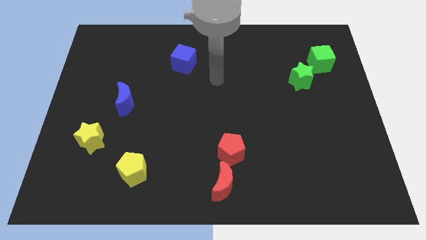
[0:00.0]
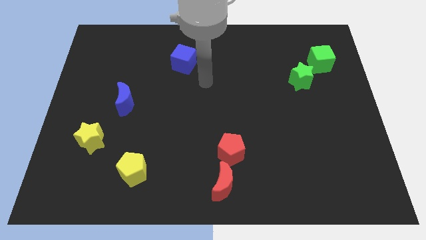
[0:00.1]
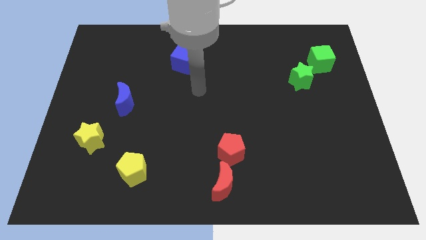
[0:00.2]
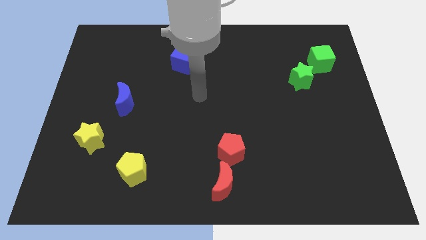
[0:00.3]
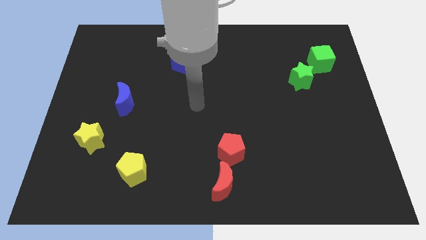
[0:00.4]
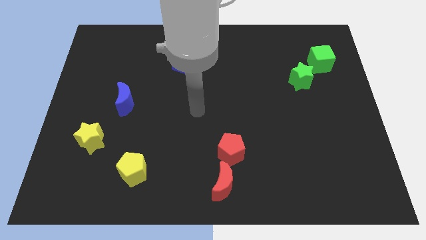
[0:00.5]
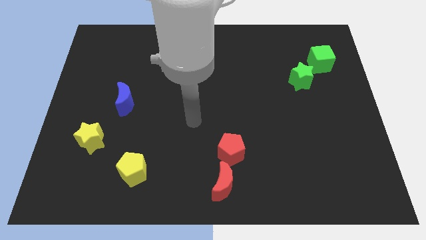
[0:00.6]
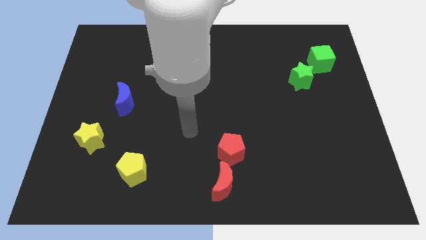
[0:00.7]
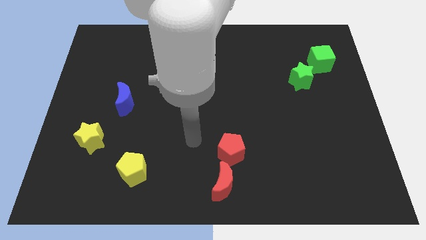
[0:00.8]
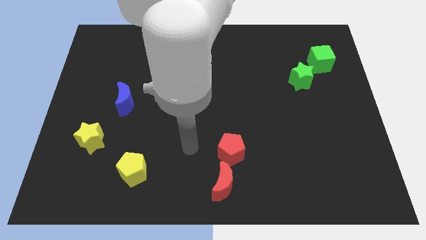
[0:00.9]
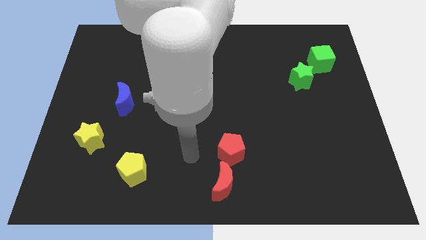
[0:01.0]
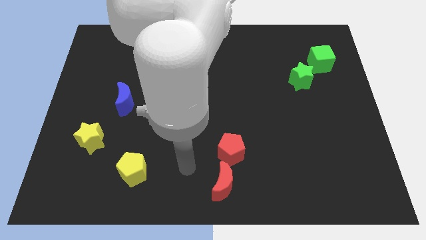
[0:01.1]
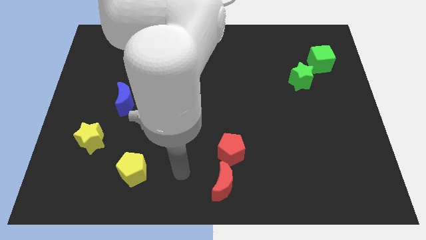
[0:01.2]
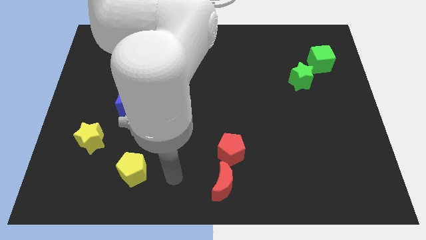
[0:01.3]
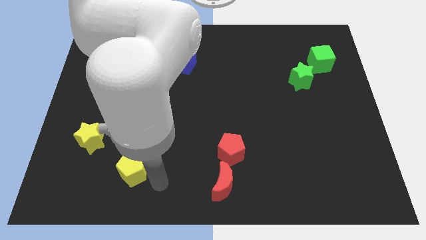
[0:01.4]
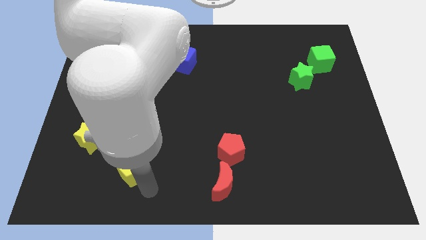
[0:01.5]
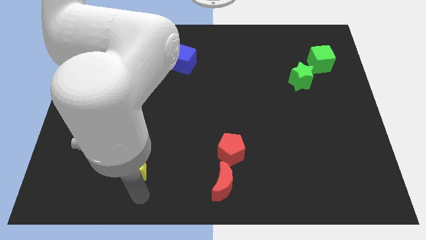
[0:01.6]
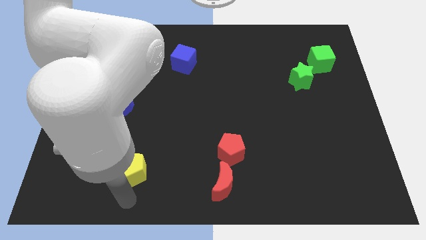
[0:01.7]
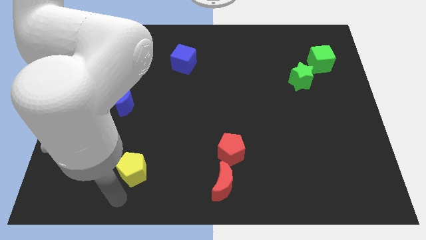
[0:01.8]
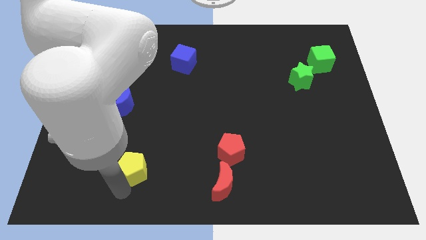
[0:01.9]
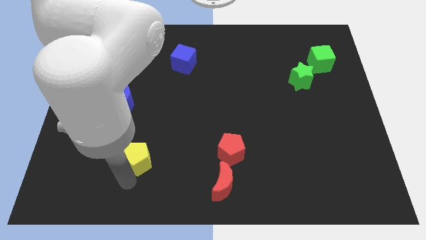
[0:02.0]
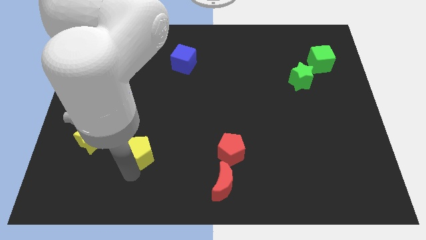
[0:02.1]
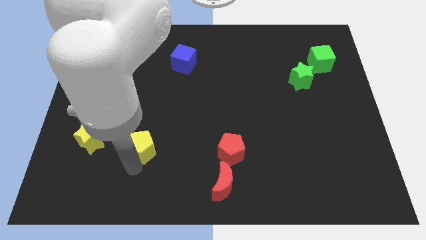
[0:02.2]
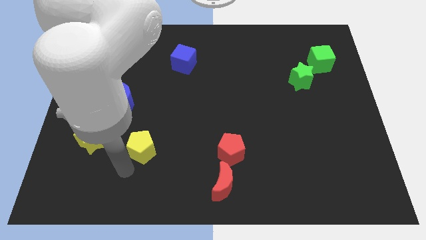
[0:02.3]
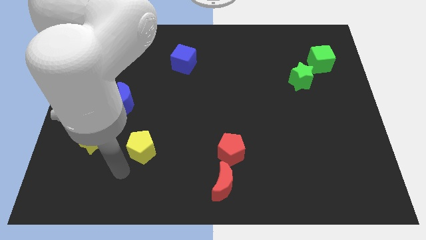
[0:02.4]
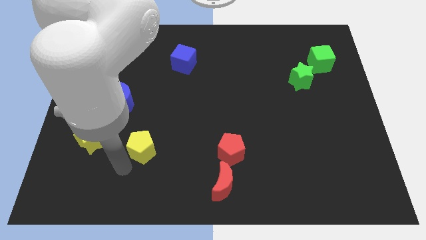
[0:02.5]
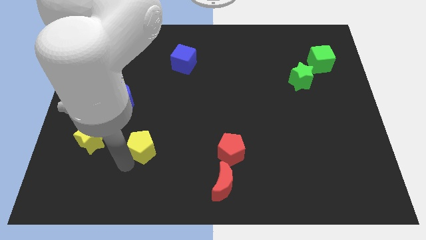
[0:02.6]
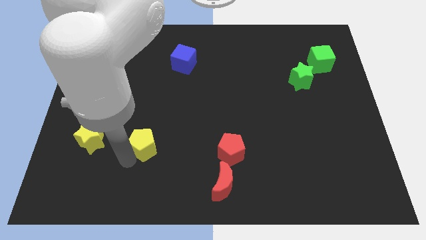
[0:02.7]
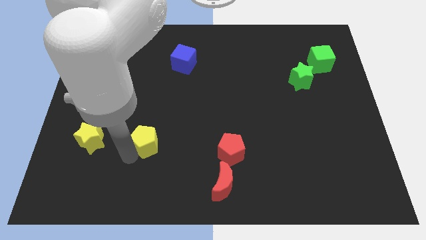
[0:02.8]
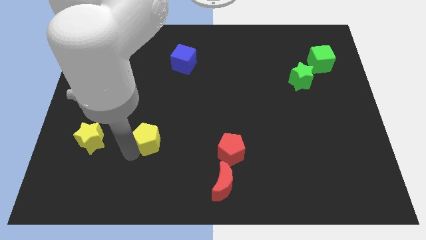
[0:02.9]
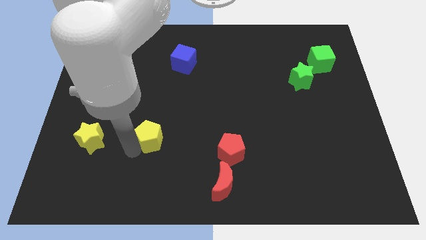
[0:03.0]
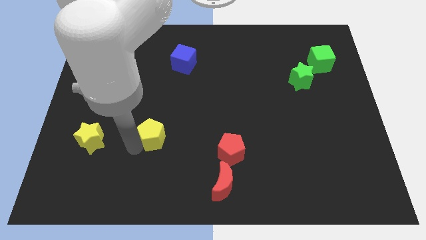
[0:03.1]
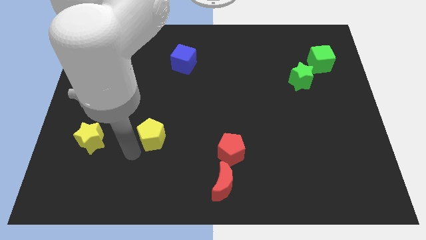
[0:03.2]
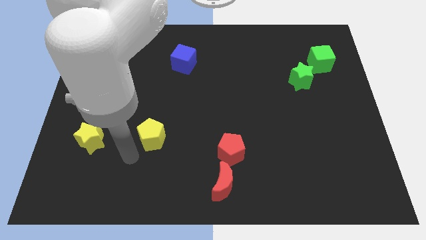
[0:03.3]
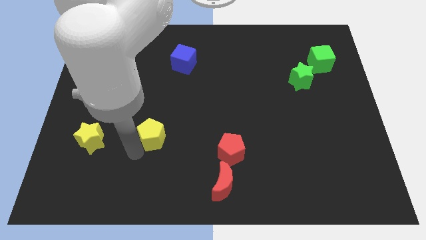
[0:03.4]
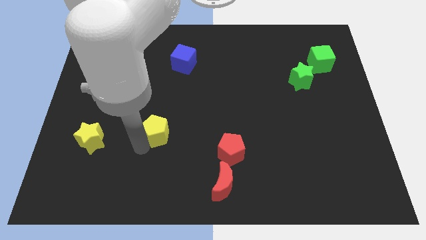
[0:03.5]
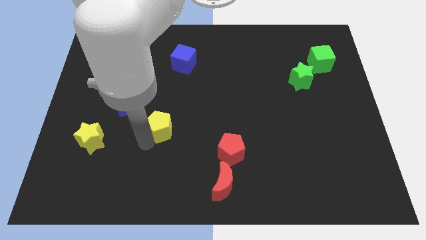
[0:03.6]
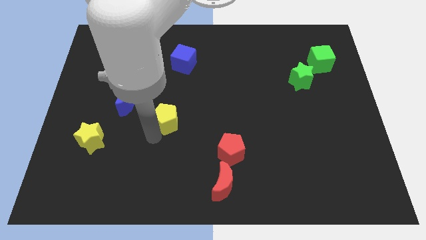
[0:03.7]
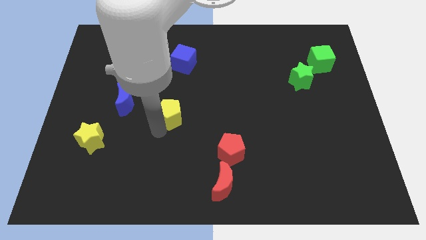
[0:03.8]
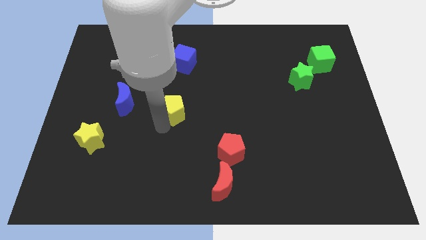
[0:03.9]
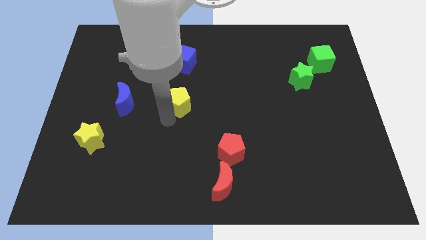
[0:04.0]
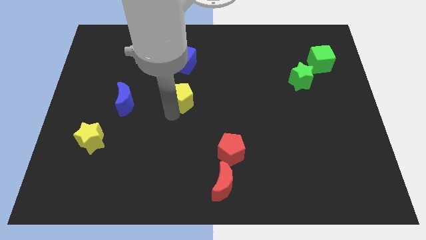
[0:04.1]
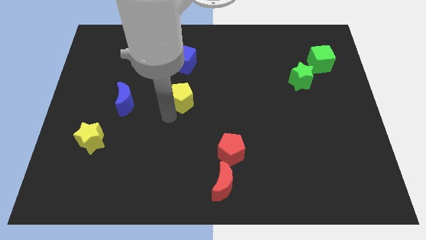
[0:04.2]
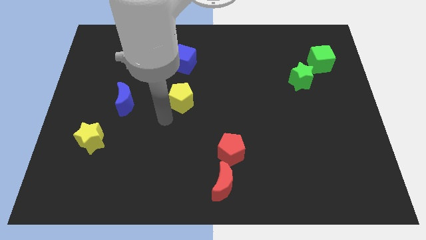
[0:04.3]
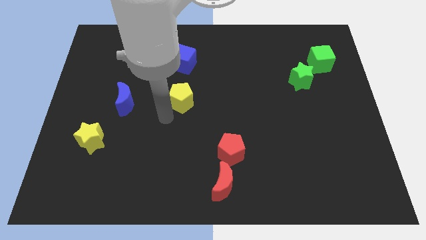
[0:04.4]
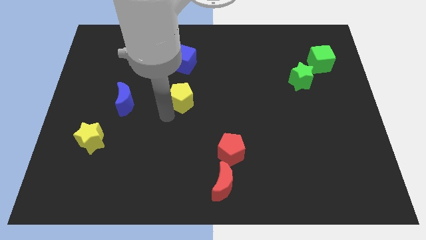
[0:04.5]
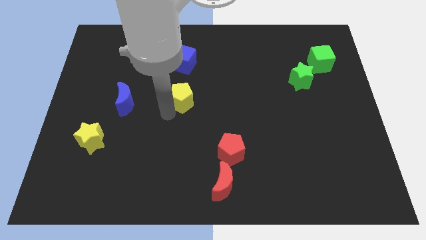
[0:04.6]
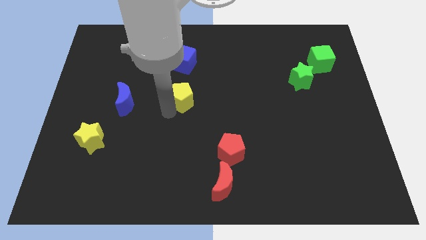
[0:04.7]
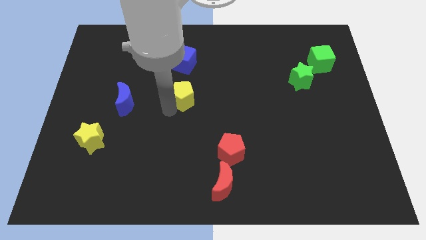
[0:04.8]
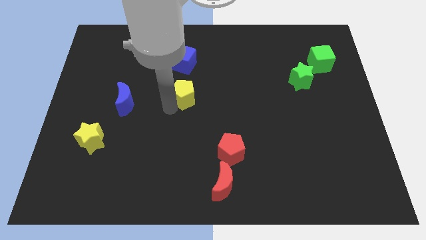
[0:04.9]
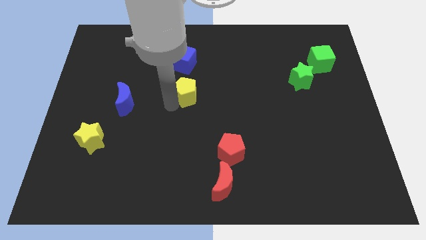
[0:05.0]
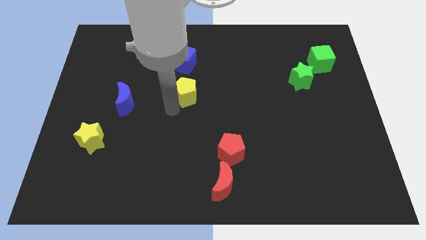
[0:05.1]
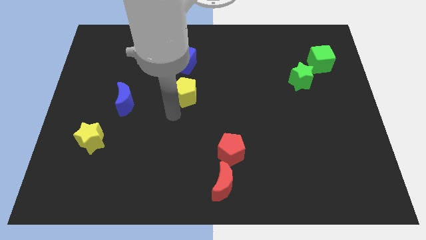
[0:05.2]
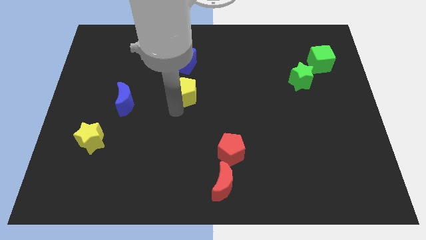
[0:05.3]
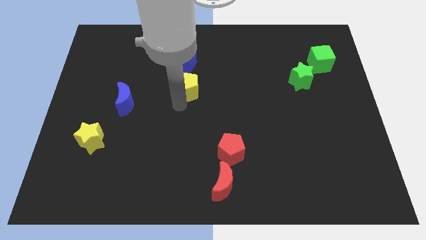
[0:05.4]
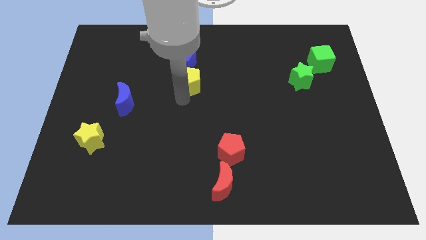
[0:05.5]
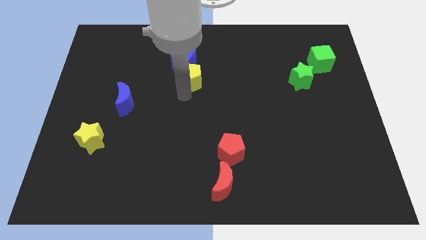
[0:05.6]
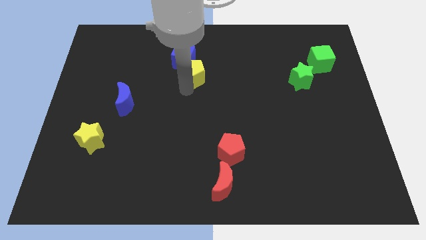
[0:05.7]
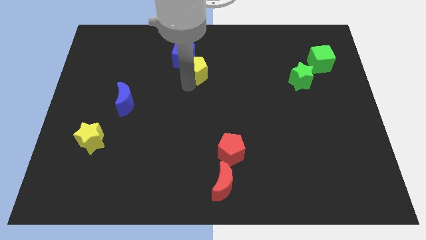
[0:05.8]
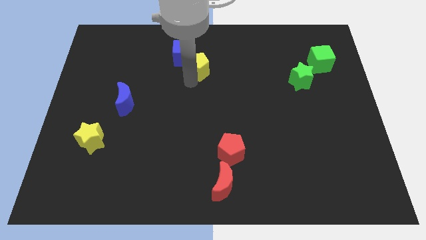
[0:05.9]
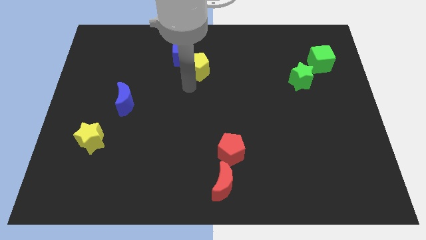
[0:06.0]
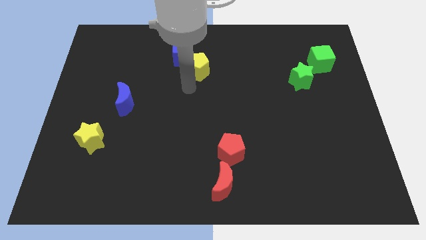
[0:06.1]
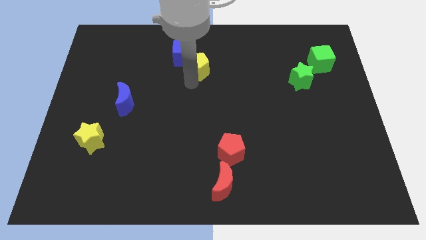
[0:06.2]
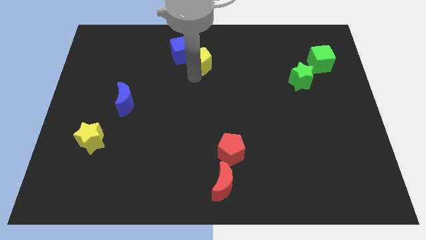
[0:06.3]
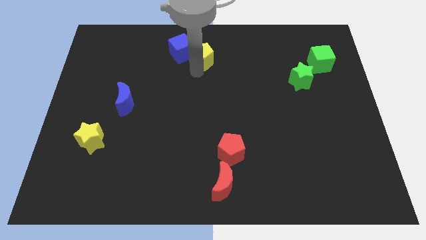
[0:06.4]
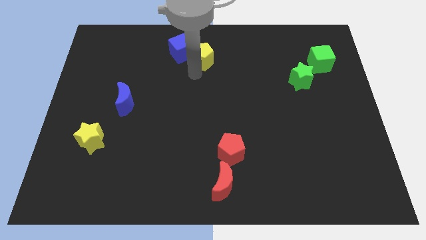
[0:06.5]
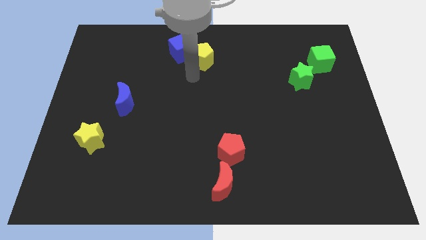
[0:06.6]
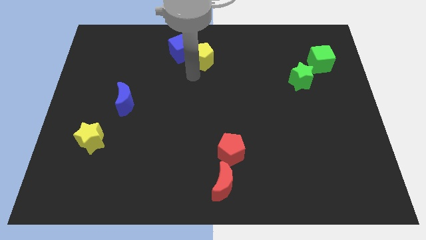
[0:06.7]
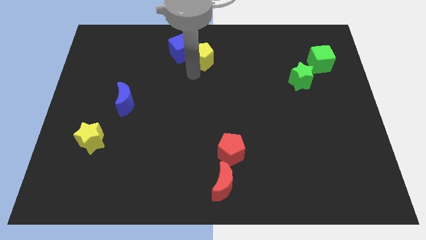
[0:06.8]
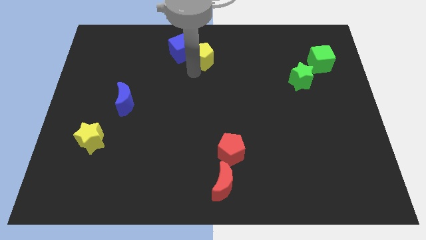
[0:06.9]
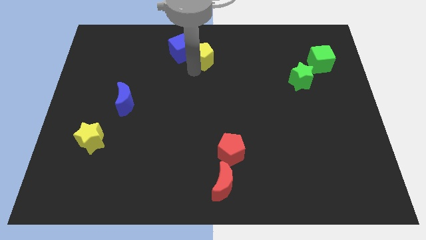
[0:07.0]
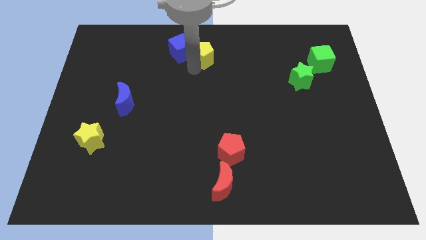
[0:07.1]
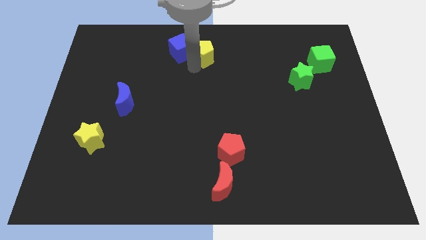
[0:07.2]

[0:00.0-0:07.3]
slide the yellow pentagon to the top side
